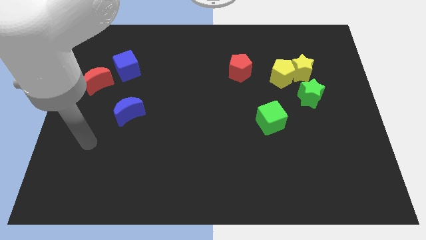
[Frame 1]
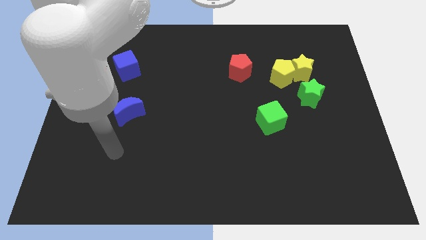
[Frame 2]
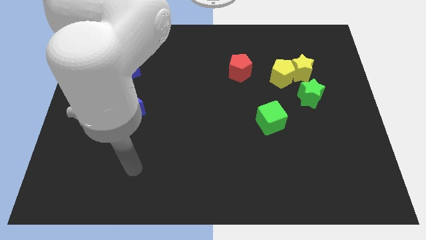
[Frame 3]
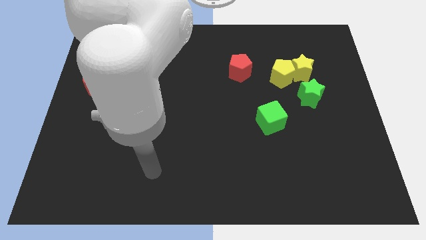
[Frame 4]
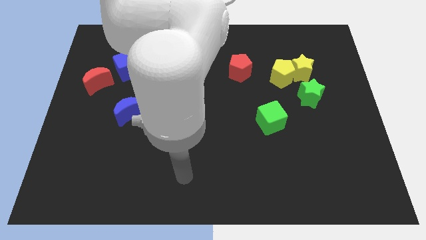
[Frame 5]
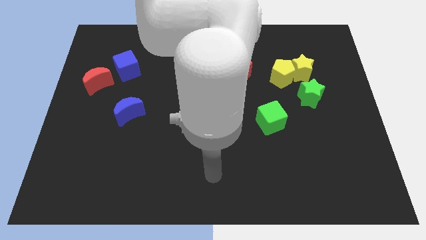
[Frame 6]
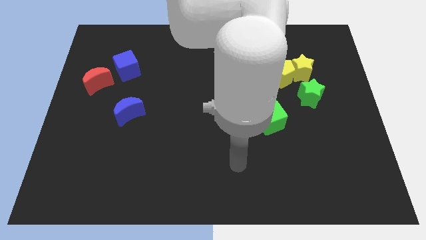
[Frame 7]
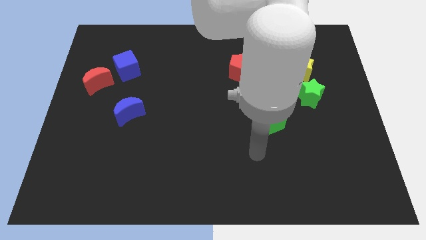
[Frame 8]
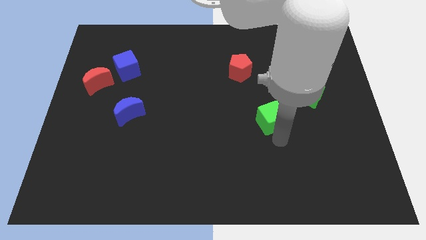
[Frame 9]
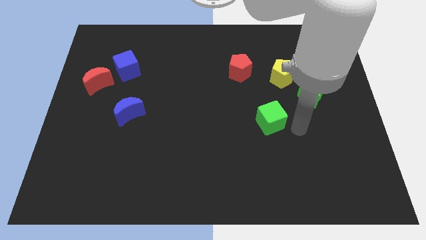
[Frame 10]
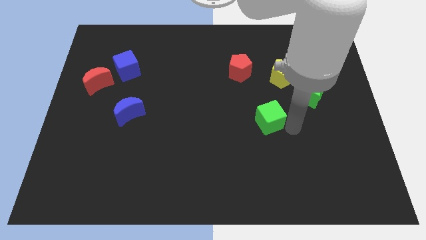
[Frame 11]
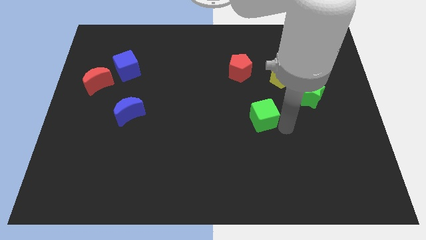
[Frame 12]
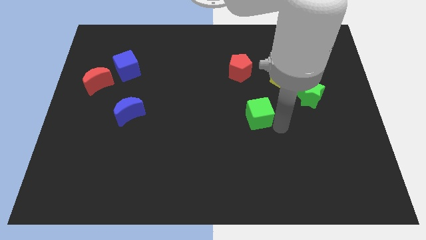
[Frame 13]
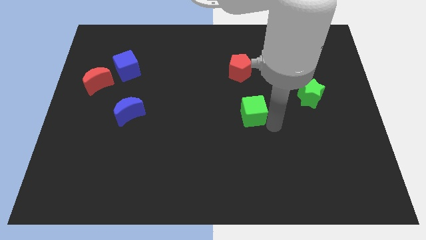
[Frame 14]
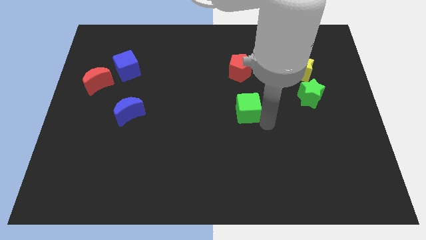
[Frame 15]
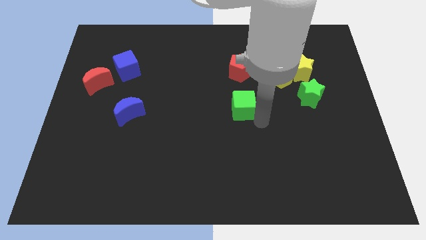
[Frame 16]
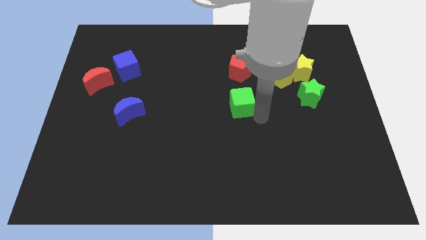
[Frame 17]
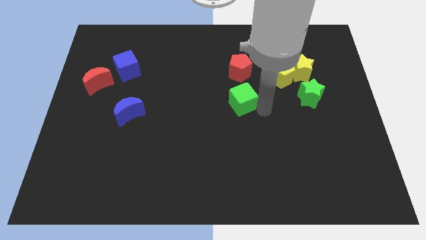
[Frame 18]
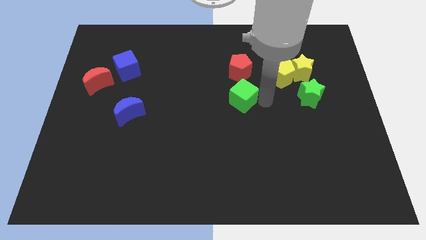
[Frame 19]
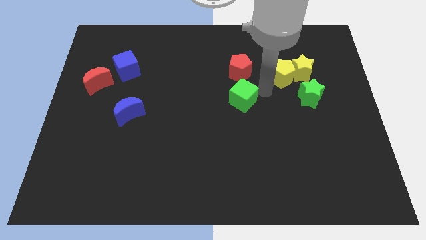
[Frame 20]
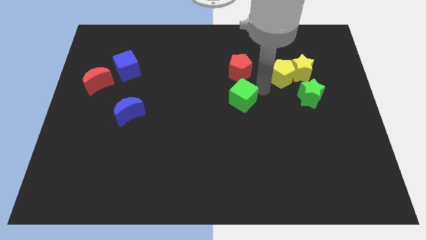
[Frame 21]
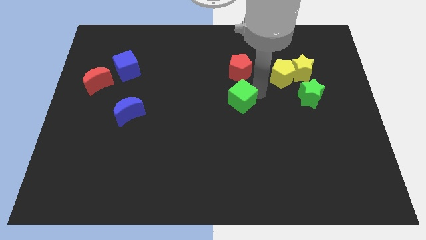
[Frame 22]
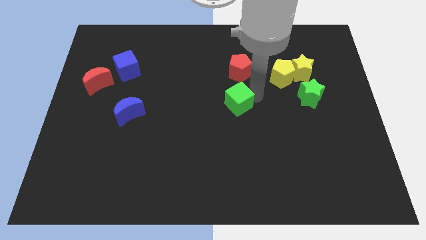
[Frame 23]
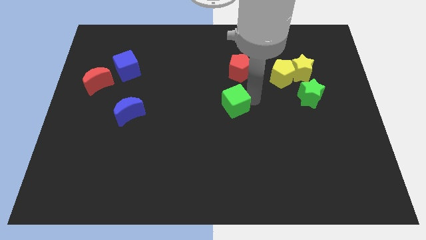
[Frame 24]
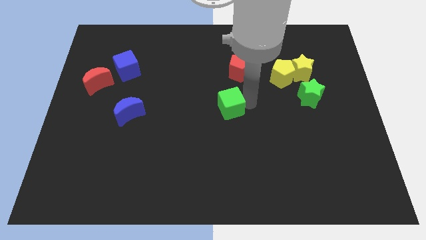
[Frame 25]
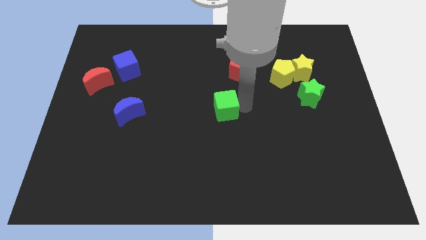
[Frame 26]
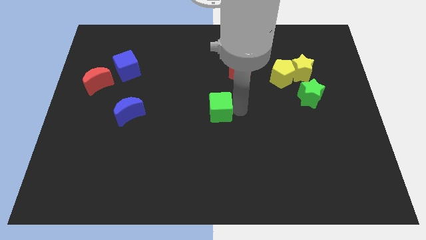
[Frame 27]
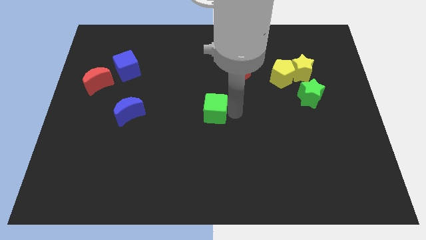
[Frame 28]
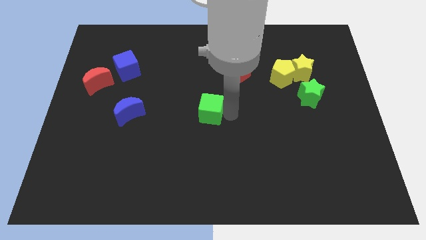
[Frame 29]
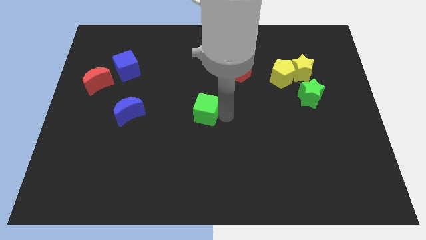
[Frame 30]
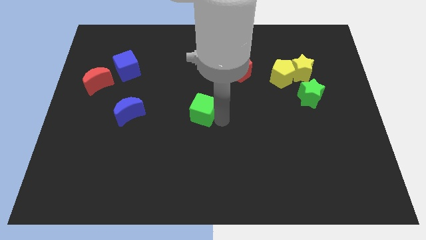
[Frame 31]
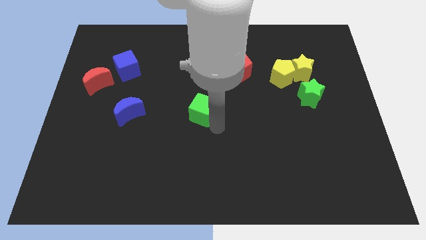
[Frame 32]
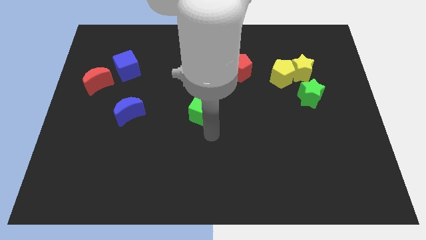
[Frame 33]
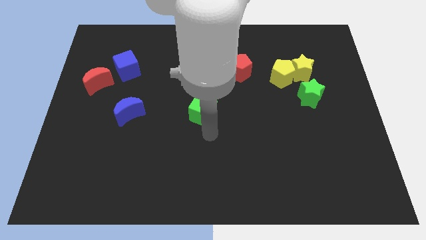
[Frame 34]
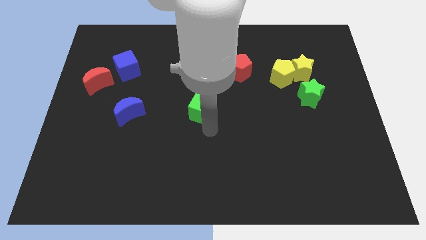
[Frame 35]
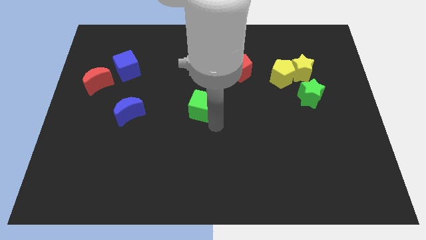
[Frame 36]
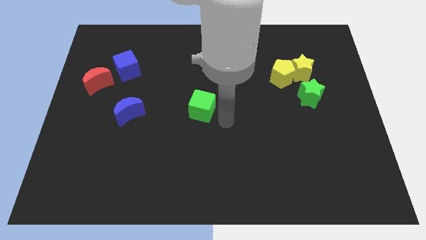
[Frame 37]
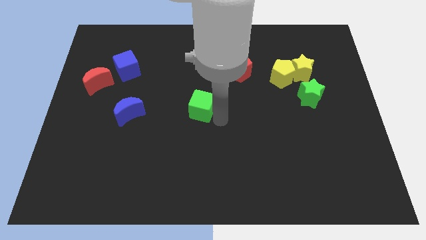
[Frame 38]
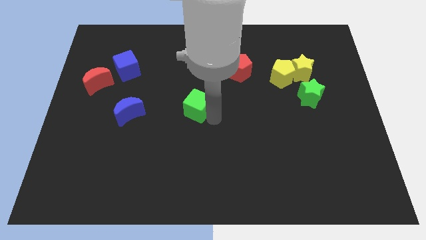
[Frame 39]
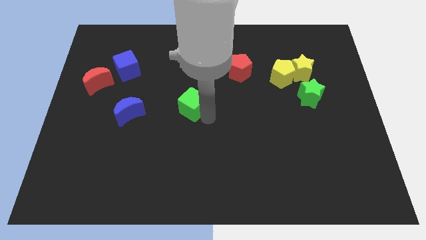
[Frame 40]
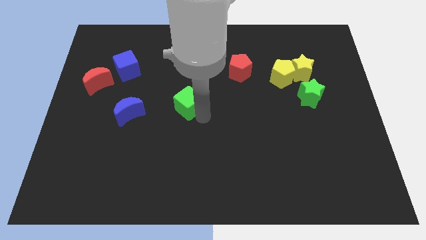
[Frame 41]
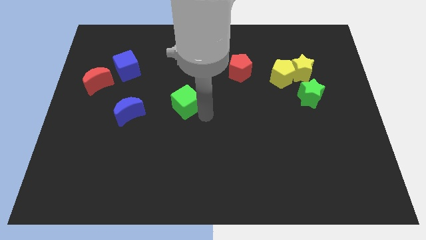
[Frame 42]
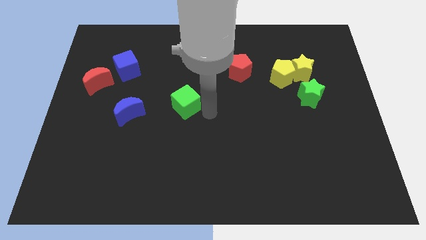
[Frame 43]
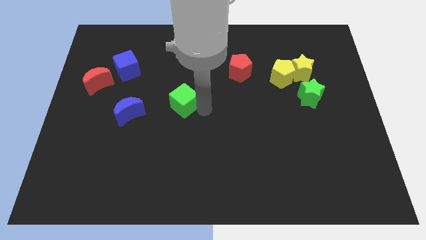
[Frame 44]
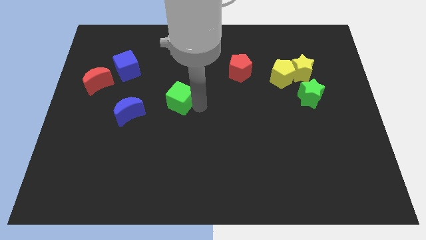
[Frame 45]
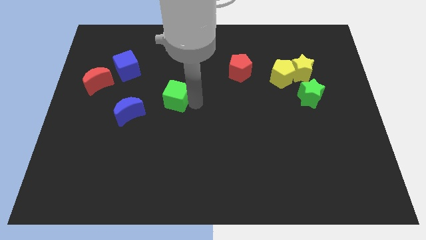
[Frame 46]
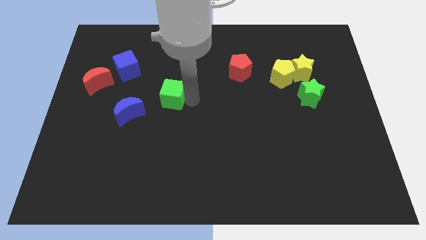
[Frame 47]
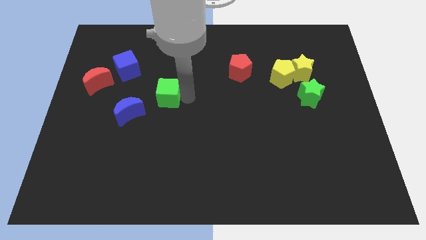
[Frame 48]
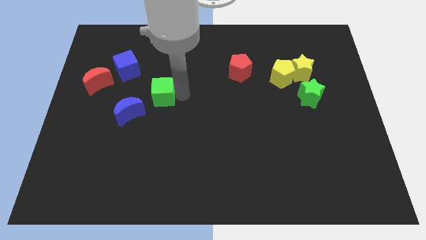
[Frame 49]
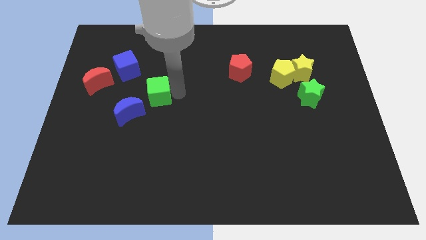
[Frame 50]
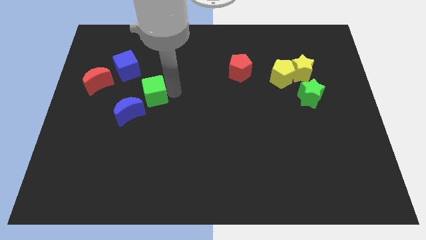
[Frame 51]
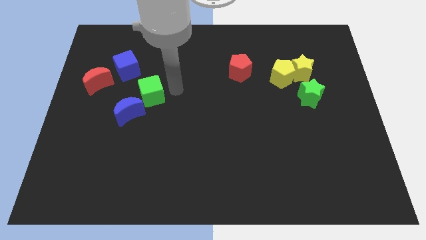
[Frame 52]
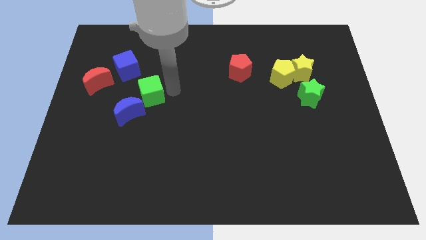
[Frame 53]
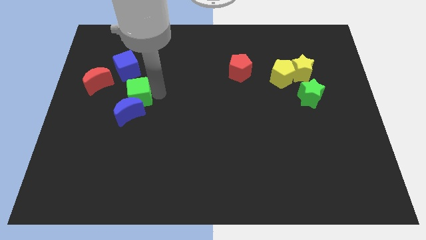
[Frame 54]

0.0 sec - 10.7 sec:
push the green cube to the bottom side of the blue cube

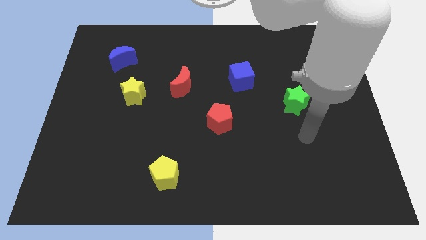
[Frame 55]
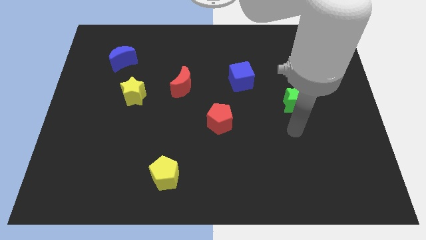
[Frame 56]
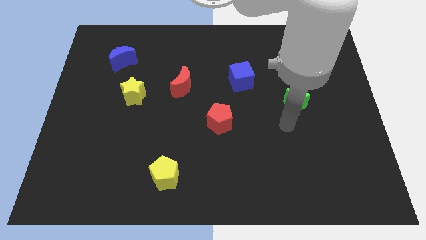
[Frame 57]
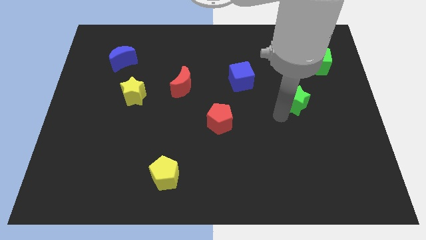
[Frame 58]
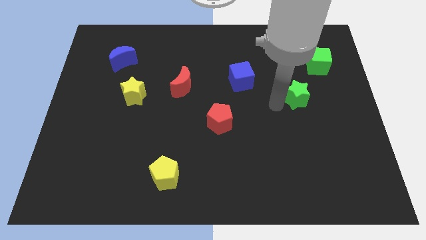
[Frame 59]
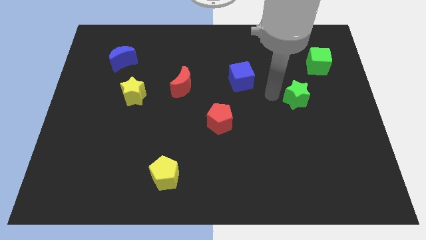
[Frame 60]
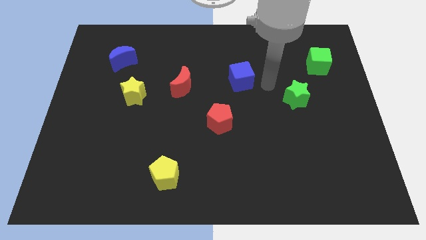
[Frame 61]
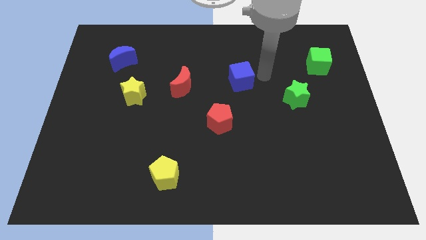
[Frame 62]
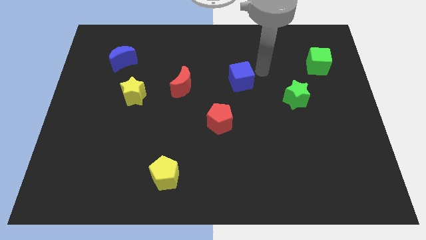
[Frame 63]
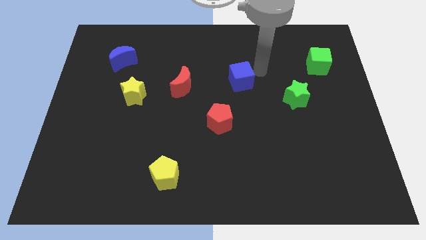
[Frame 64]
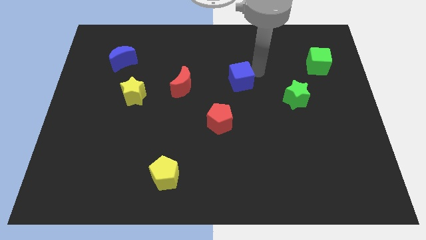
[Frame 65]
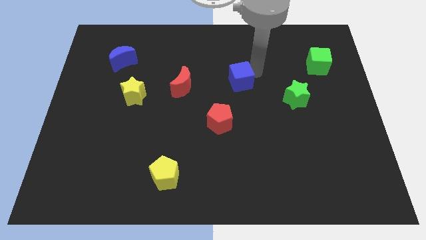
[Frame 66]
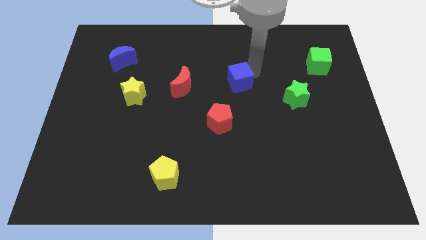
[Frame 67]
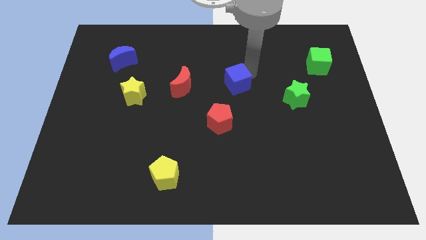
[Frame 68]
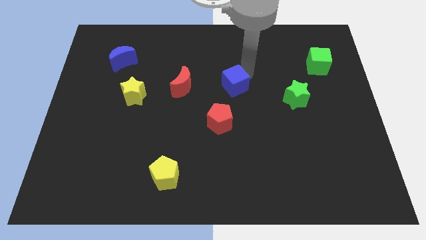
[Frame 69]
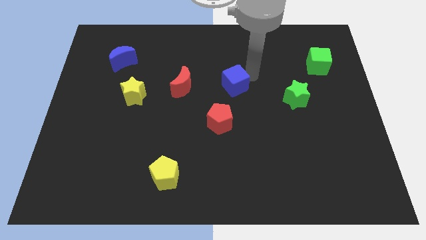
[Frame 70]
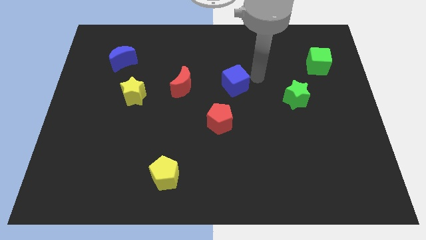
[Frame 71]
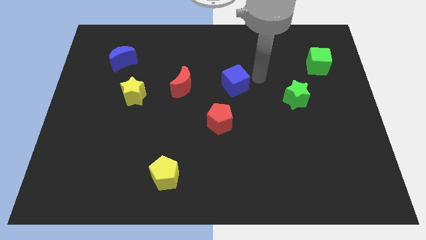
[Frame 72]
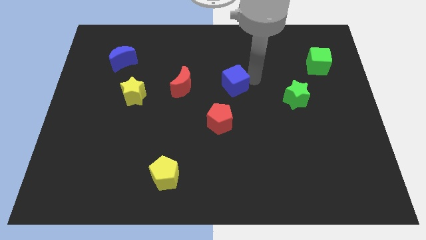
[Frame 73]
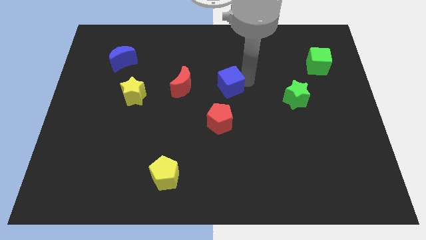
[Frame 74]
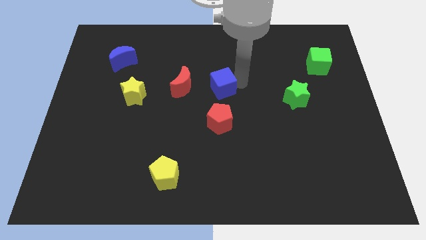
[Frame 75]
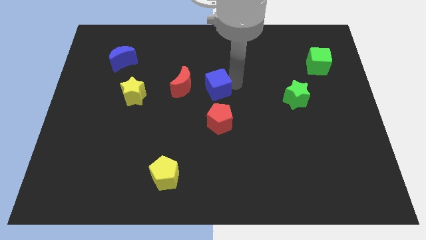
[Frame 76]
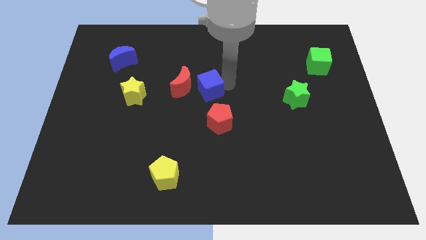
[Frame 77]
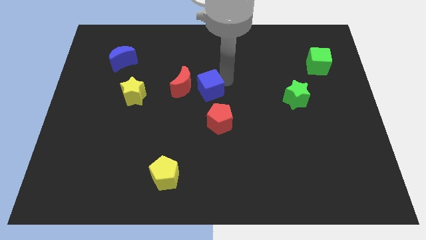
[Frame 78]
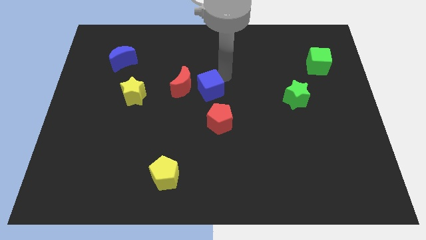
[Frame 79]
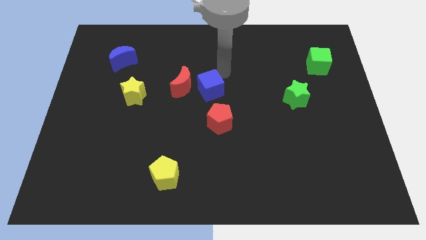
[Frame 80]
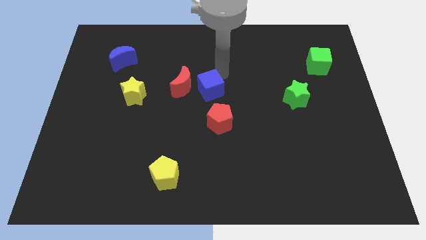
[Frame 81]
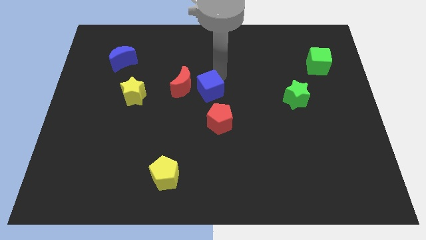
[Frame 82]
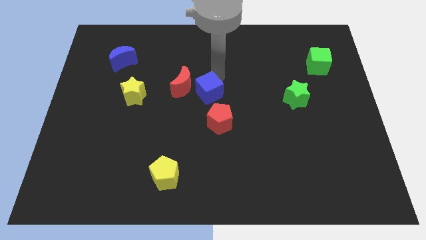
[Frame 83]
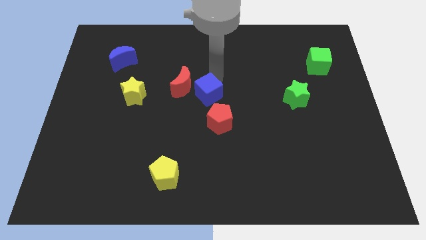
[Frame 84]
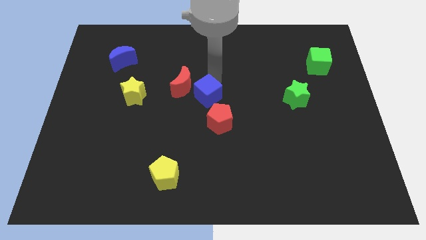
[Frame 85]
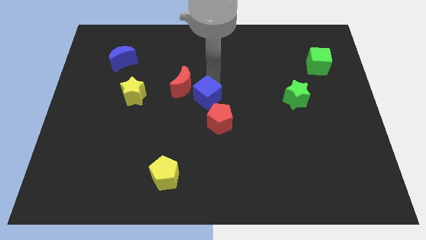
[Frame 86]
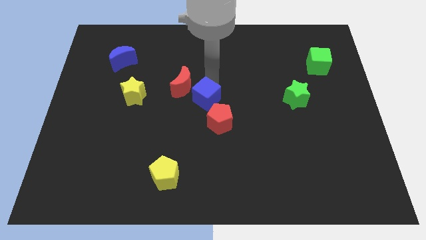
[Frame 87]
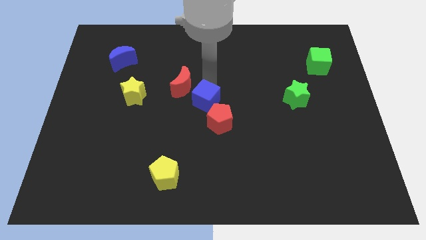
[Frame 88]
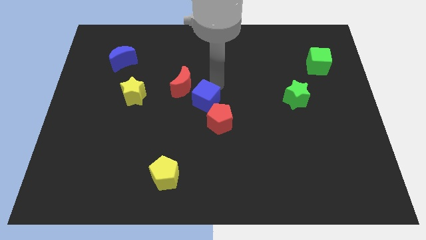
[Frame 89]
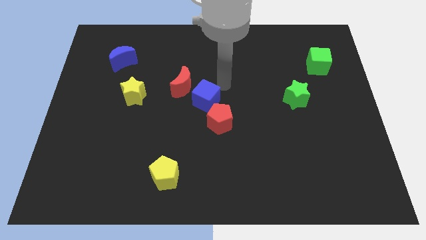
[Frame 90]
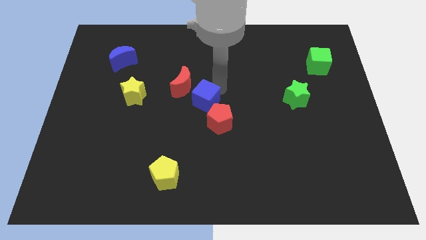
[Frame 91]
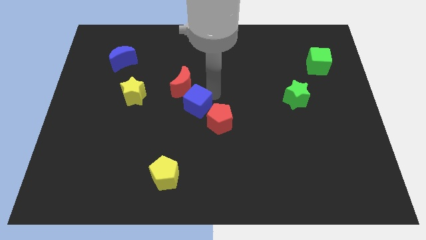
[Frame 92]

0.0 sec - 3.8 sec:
push the blue cube to the bottom side of the red moon
